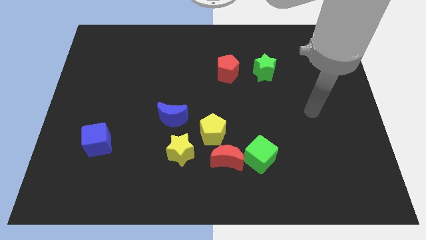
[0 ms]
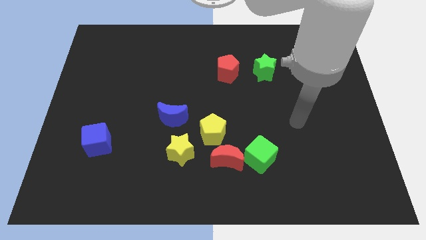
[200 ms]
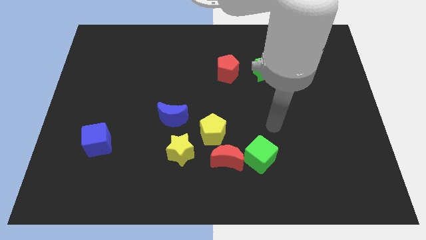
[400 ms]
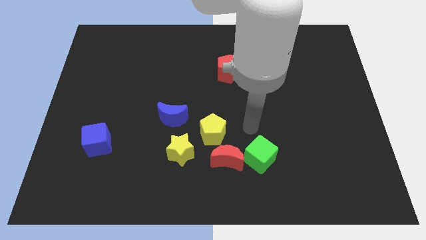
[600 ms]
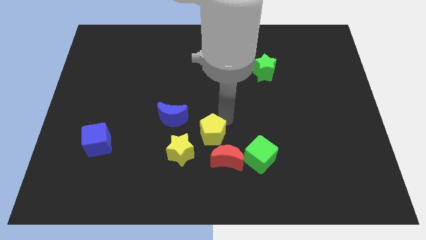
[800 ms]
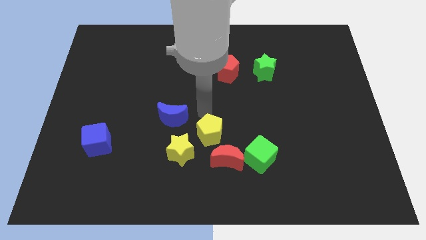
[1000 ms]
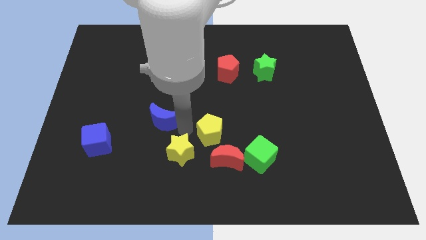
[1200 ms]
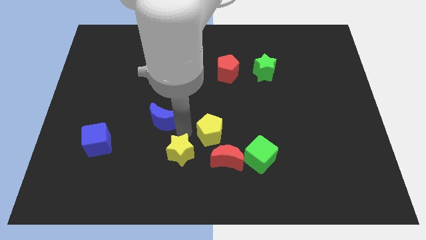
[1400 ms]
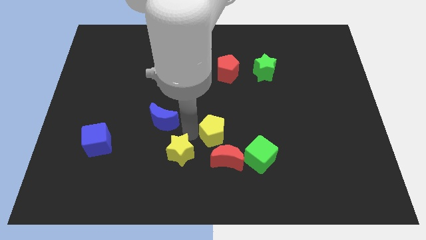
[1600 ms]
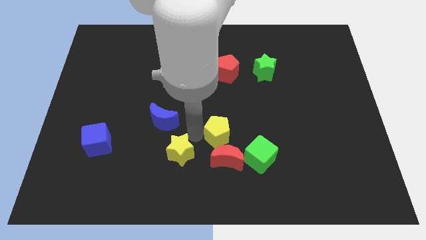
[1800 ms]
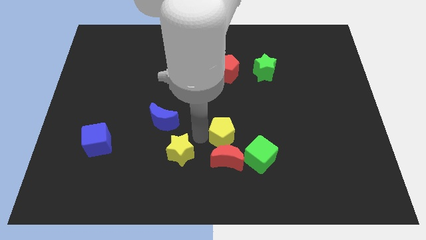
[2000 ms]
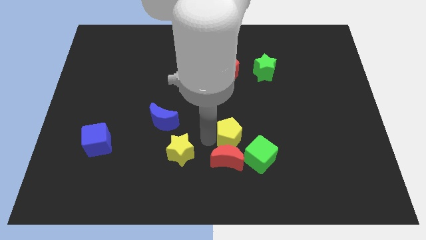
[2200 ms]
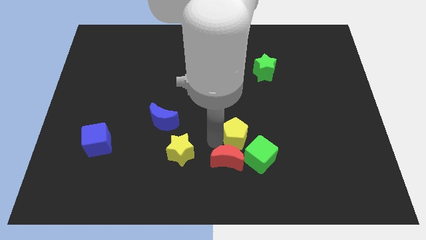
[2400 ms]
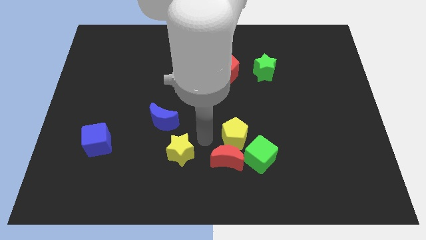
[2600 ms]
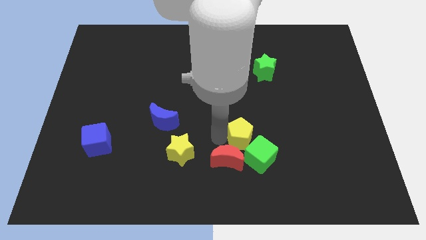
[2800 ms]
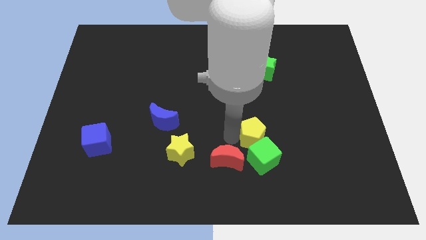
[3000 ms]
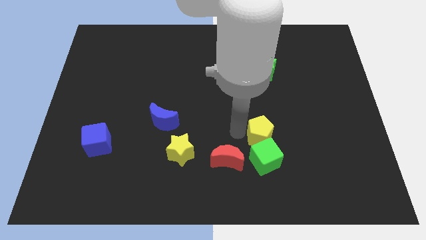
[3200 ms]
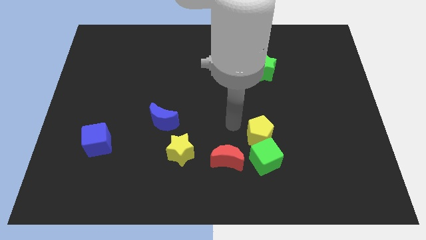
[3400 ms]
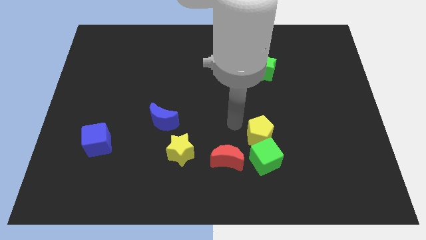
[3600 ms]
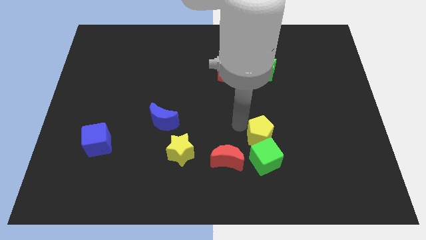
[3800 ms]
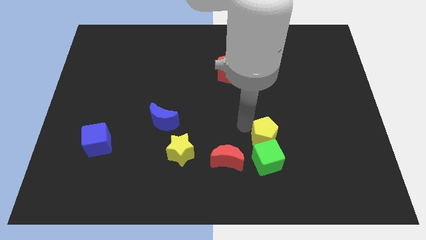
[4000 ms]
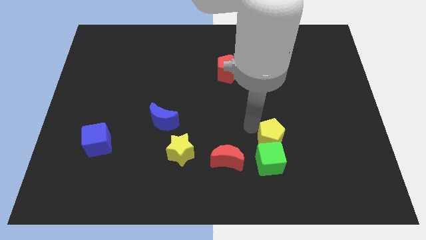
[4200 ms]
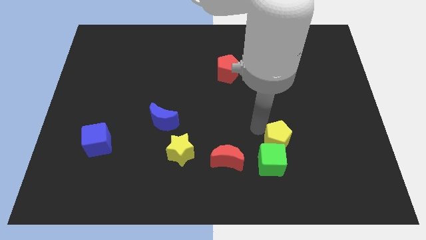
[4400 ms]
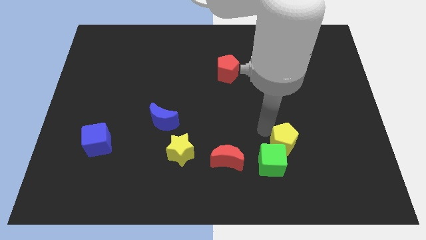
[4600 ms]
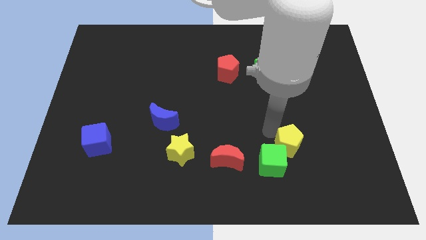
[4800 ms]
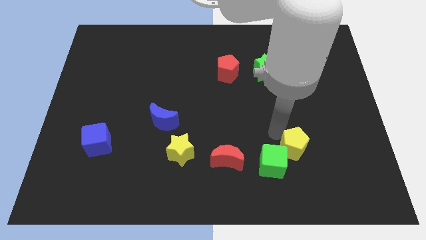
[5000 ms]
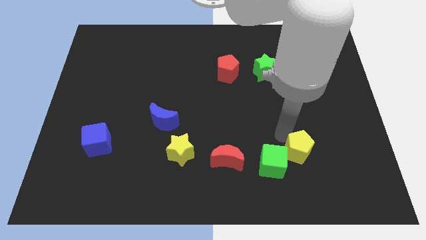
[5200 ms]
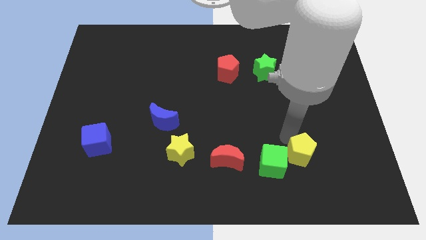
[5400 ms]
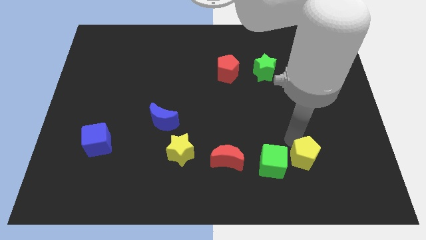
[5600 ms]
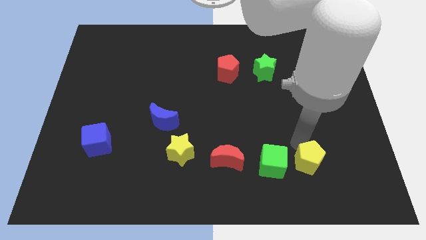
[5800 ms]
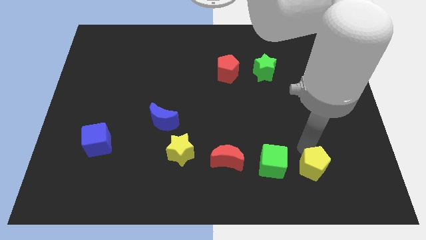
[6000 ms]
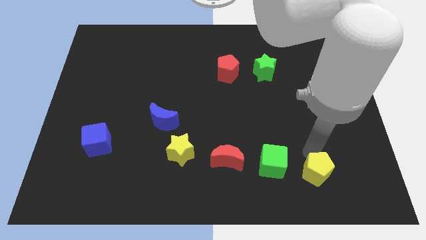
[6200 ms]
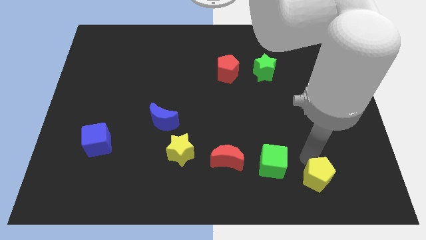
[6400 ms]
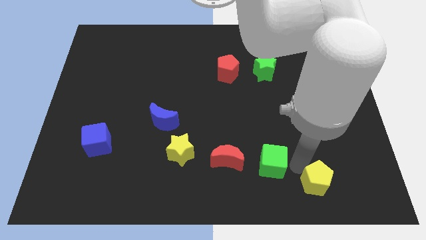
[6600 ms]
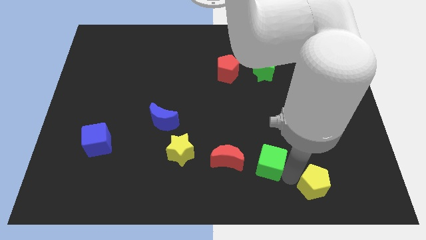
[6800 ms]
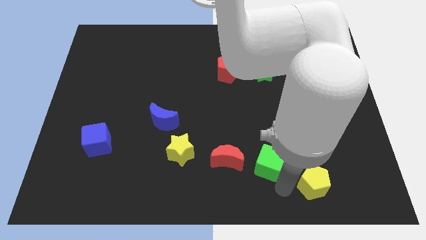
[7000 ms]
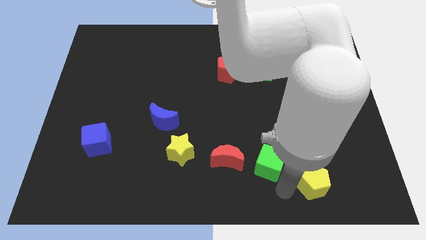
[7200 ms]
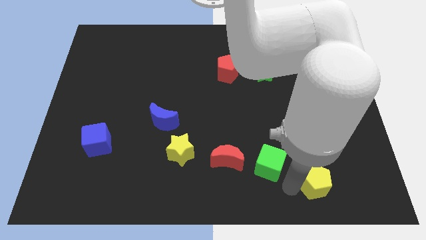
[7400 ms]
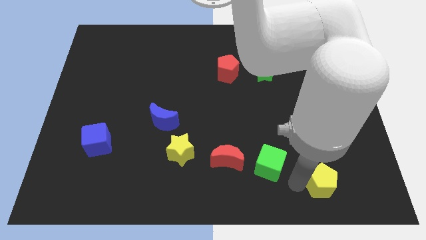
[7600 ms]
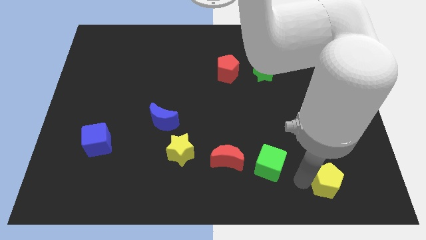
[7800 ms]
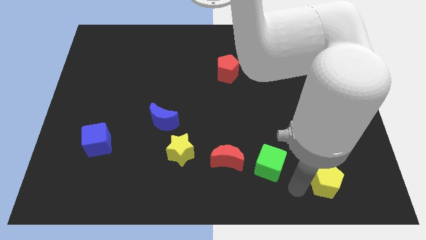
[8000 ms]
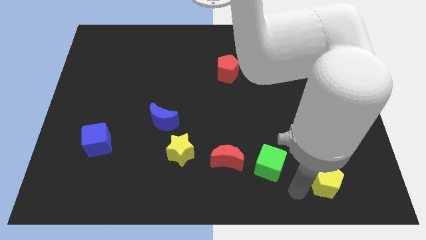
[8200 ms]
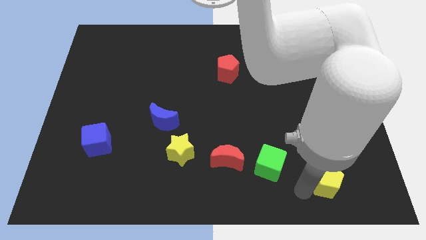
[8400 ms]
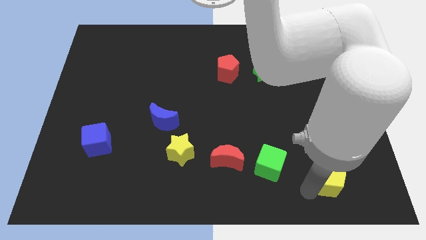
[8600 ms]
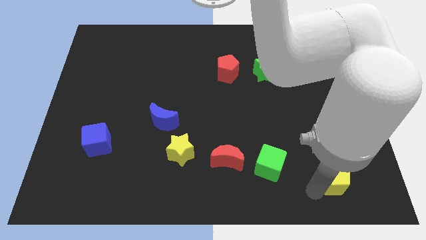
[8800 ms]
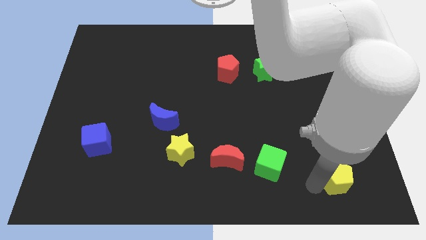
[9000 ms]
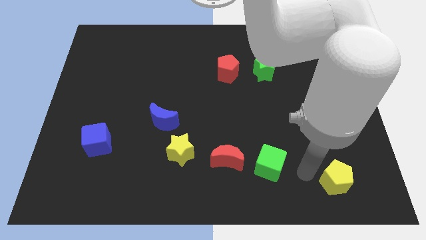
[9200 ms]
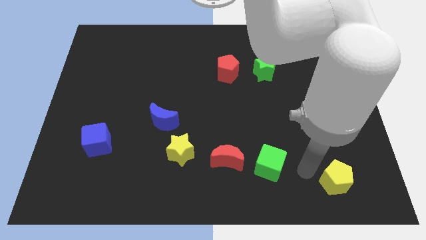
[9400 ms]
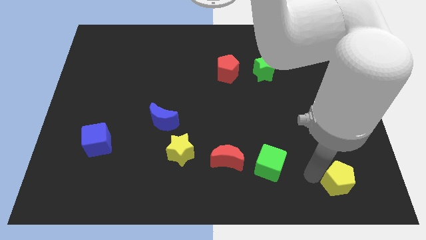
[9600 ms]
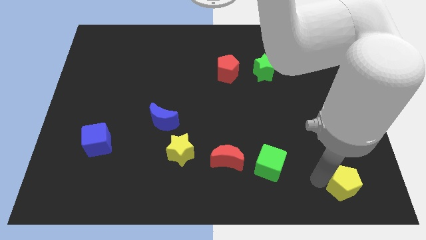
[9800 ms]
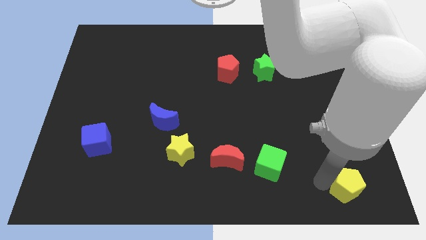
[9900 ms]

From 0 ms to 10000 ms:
push the yellow pentagon to the bottom right of the board
